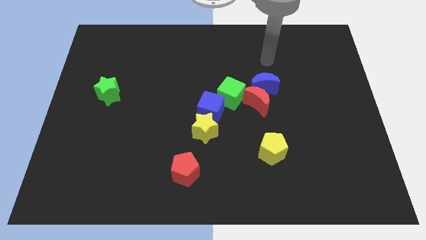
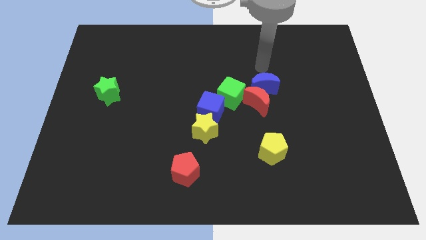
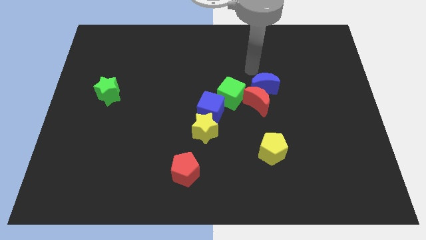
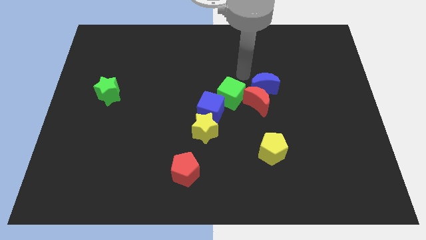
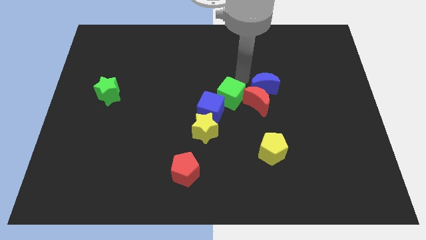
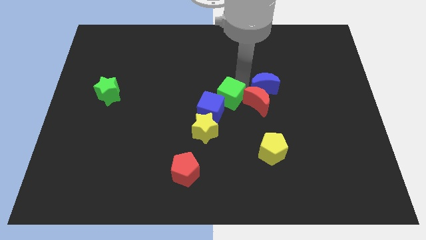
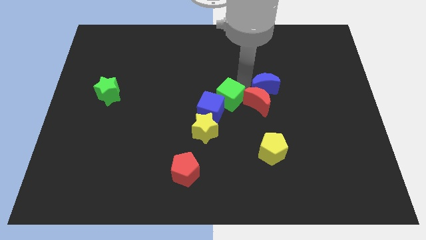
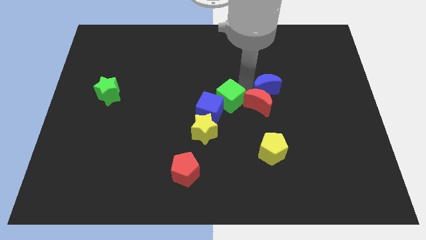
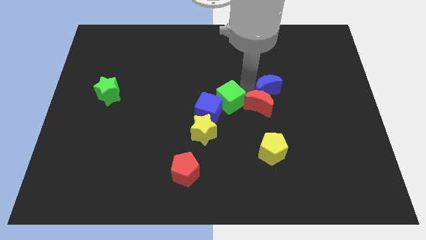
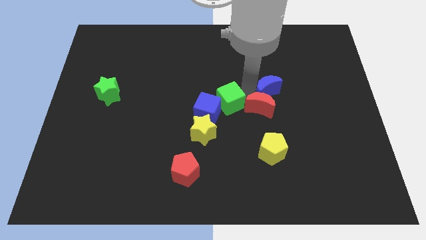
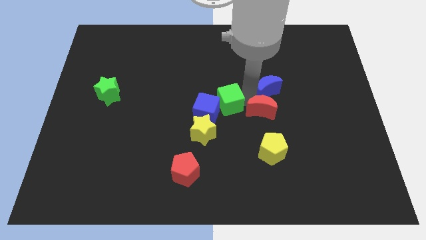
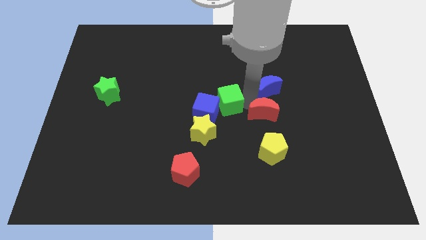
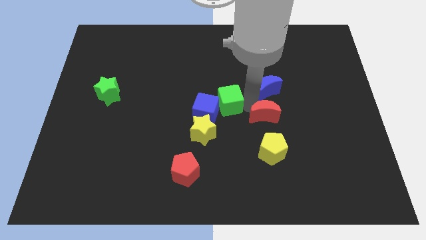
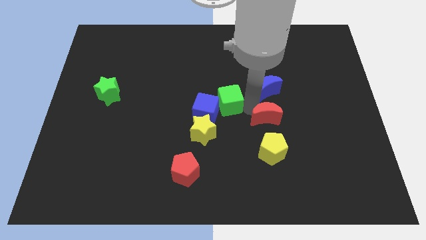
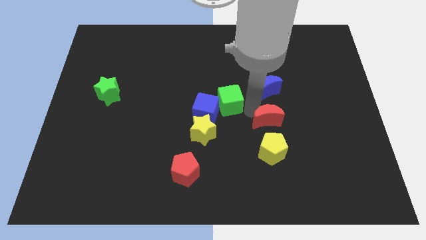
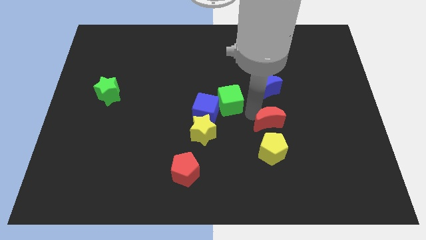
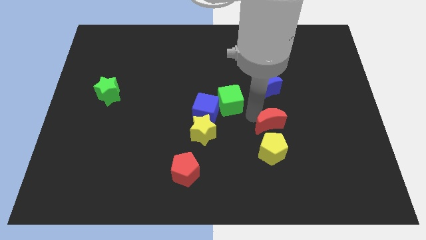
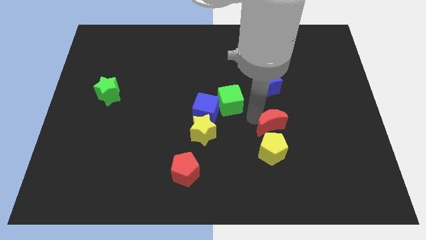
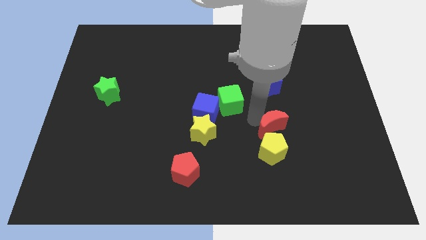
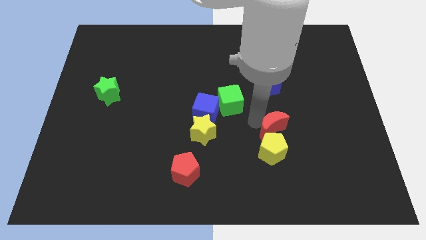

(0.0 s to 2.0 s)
separate the red moon from the blue moon and green cube

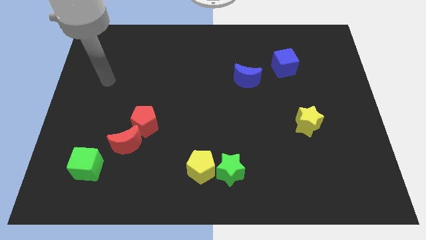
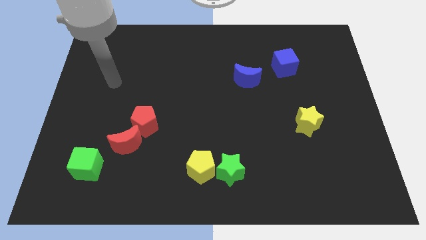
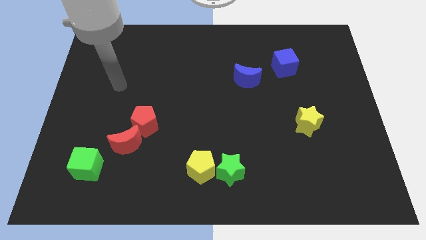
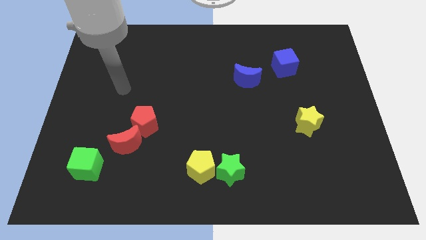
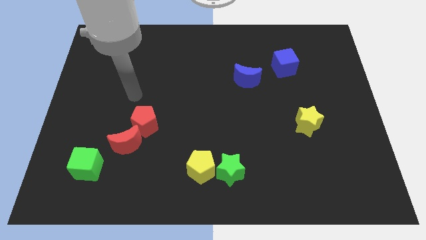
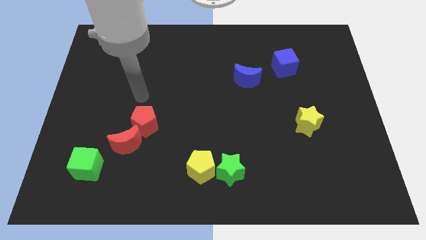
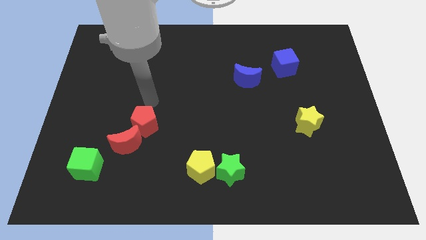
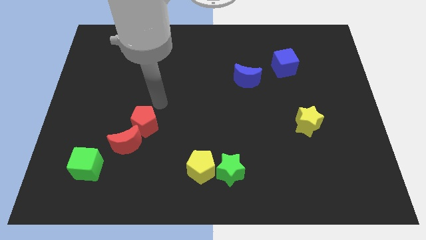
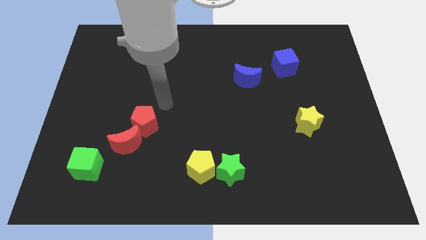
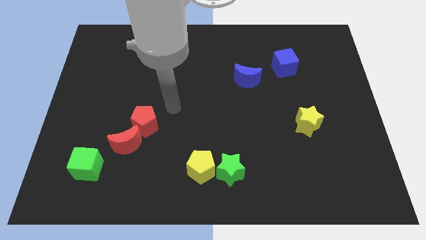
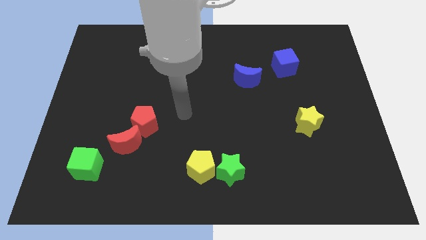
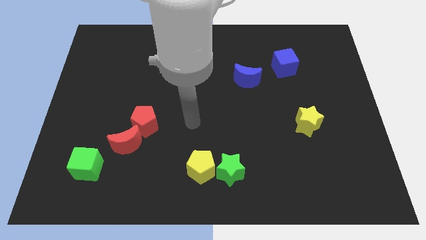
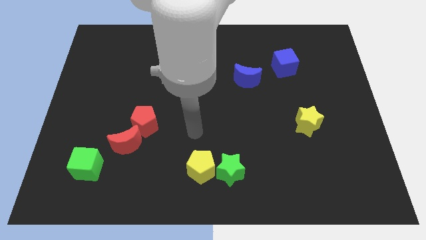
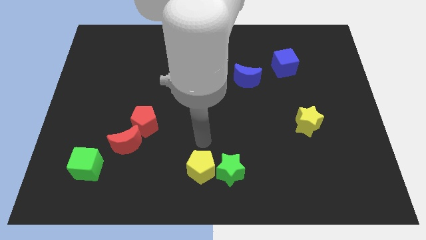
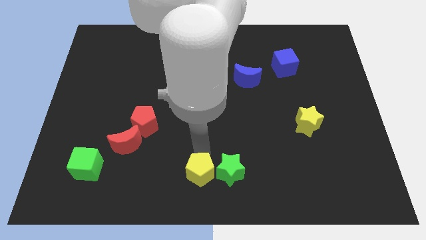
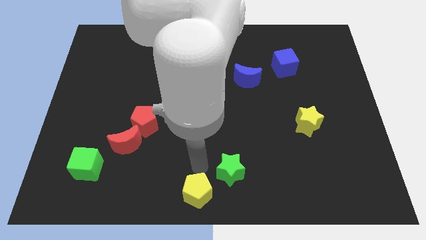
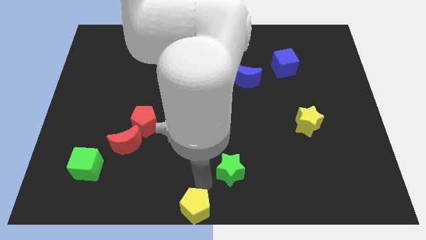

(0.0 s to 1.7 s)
separate the green star from the yellow pentagon

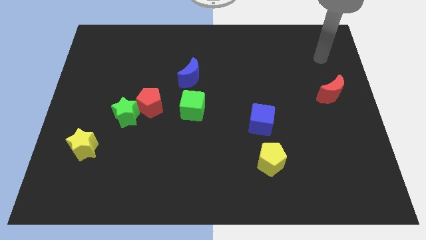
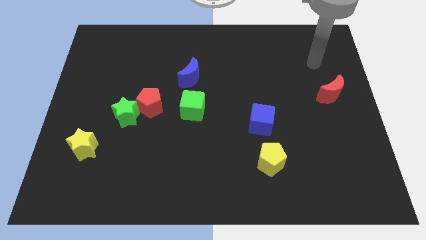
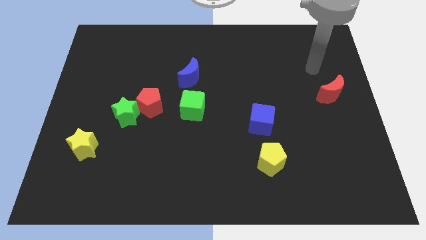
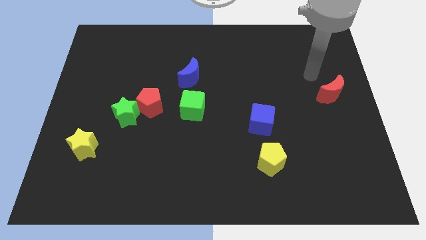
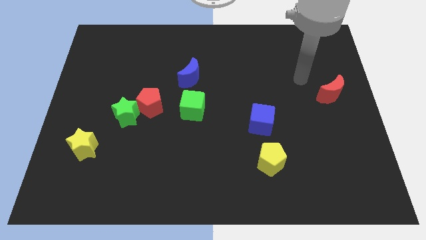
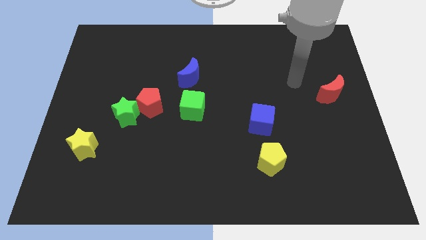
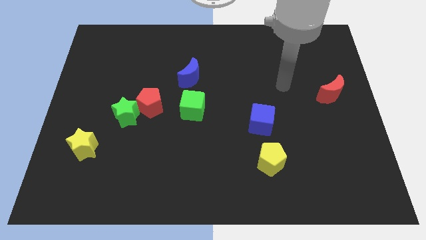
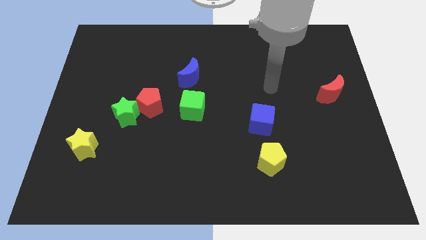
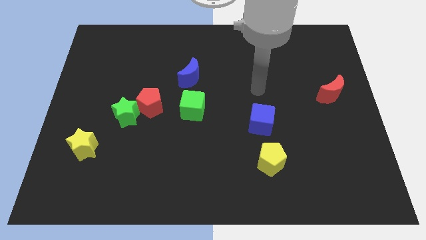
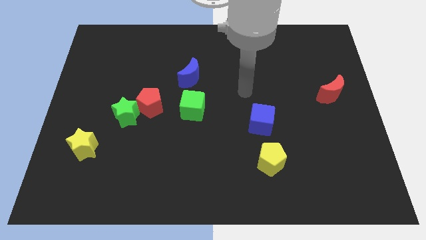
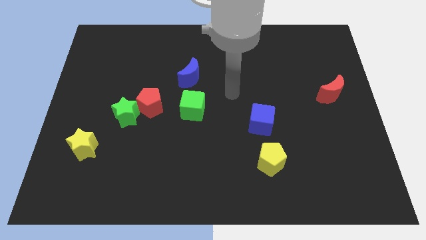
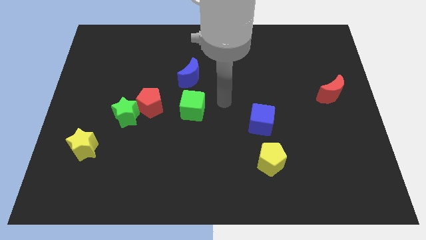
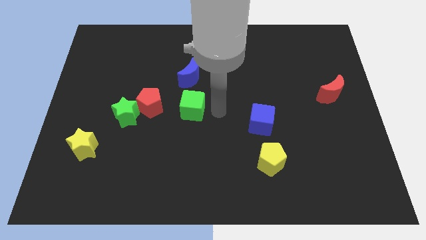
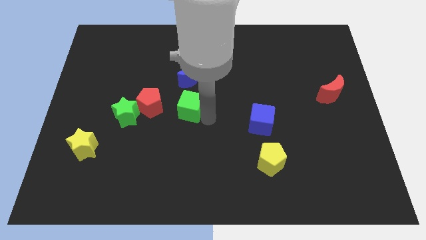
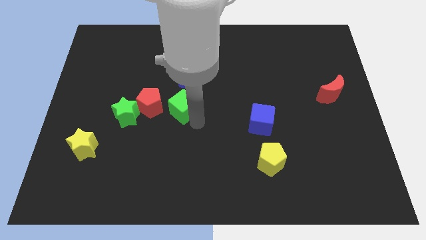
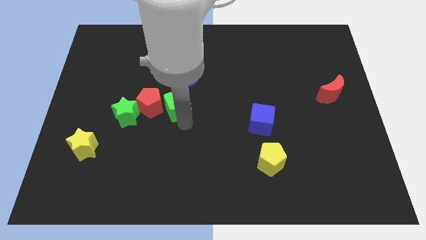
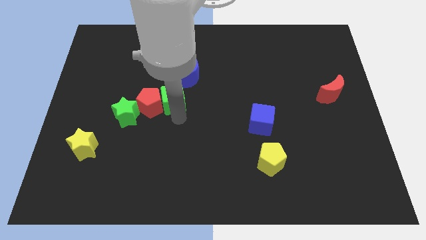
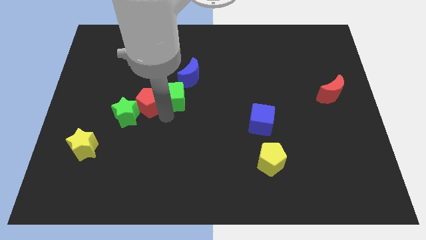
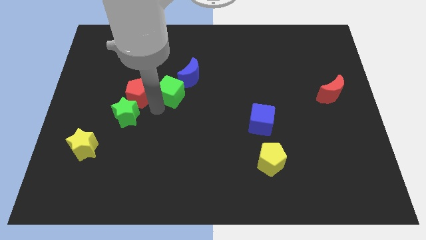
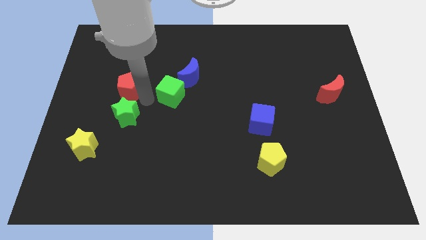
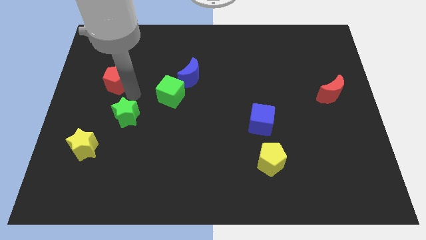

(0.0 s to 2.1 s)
separate the green star from the red pentagon

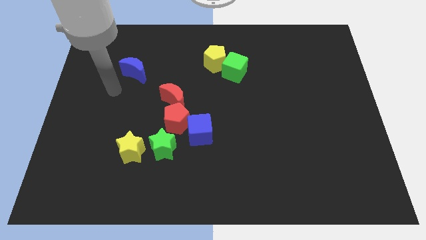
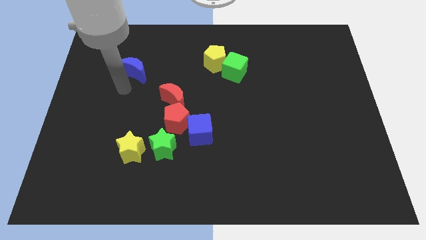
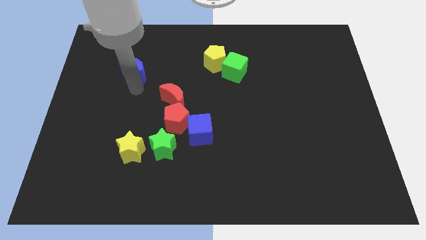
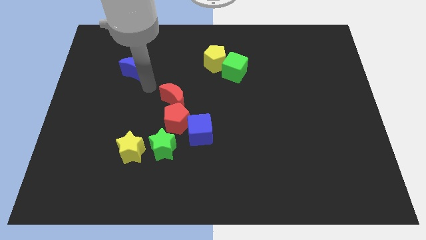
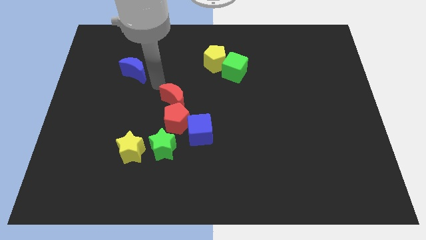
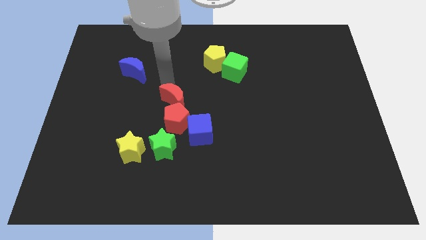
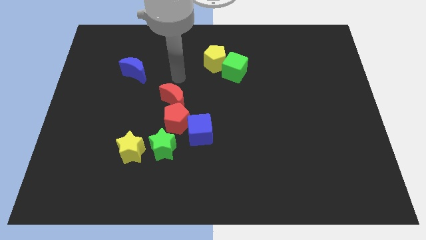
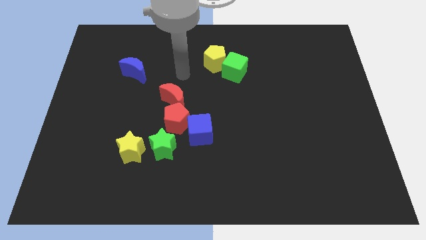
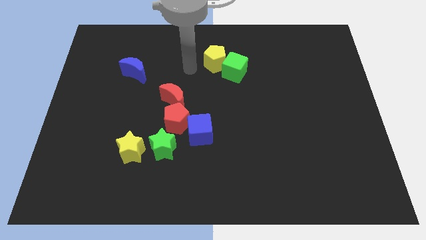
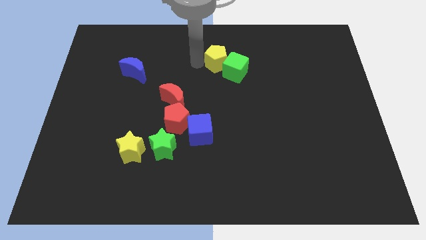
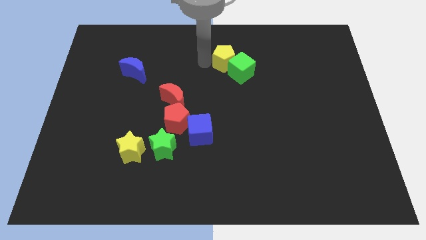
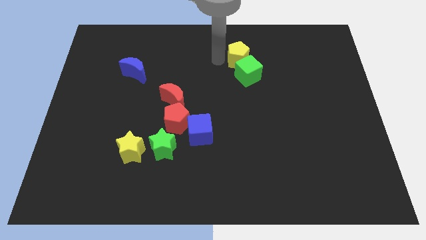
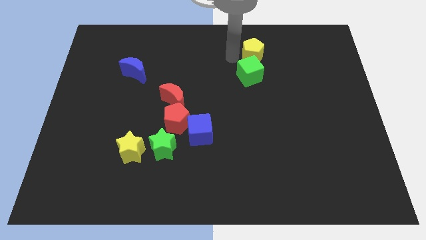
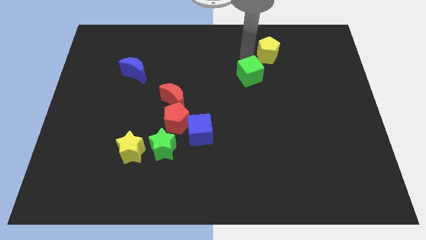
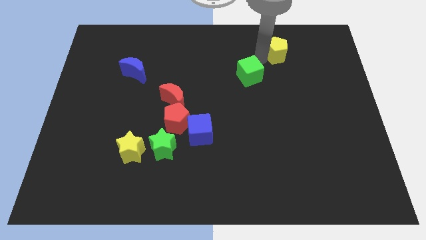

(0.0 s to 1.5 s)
separate the green cube from the yellow pentagon

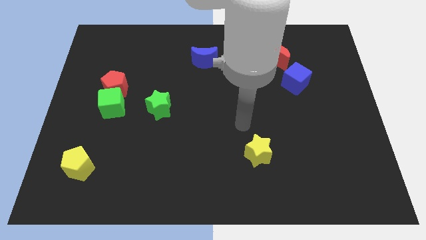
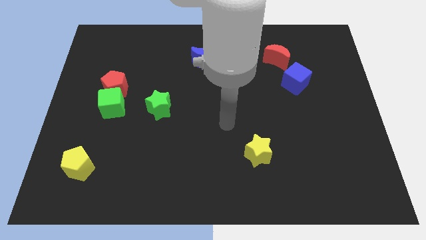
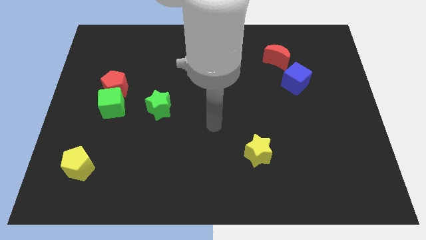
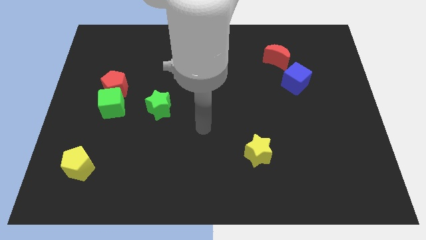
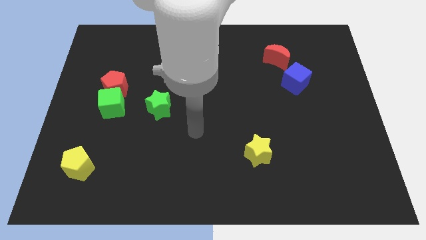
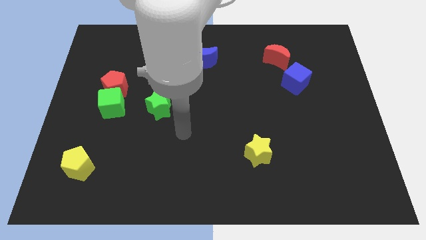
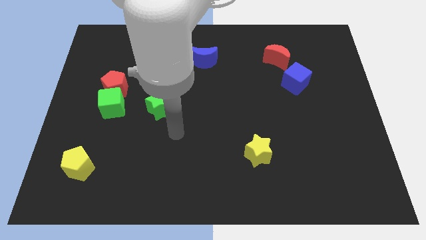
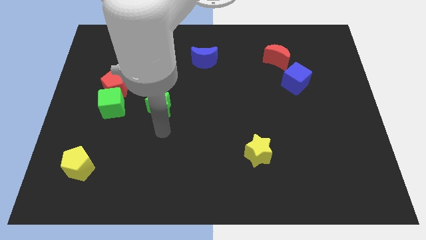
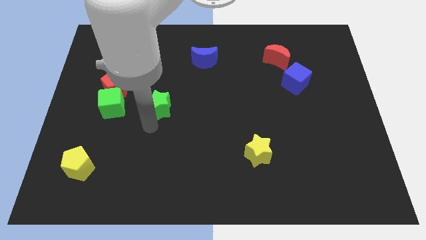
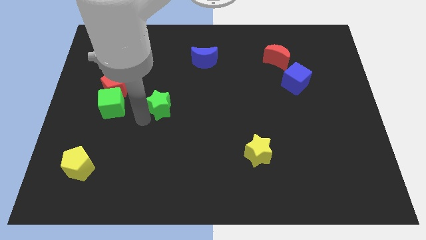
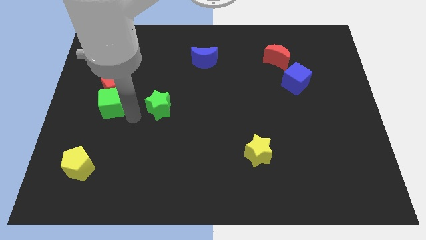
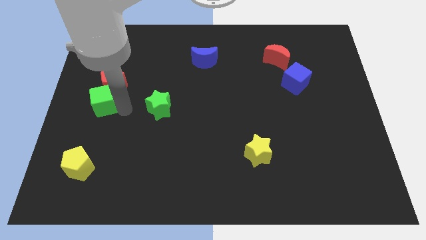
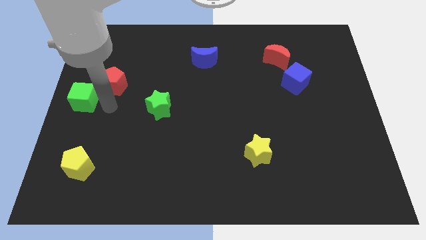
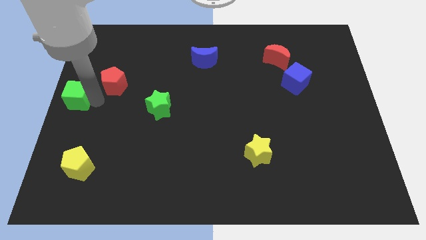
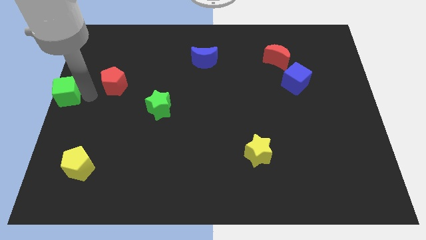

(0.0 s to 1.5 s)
move the red pentagon away from the green cube

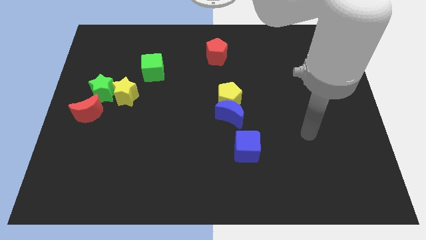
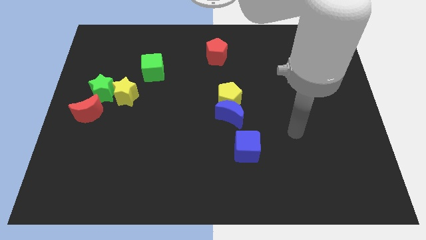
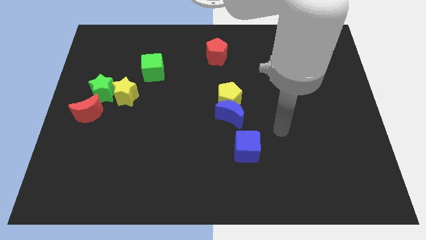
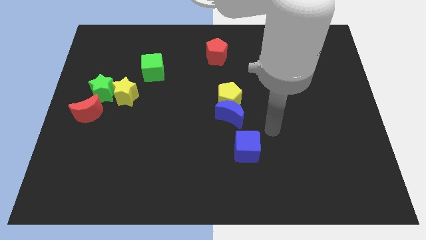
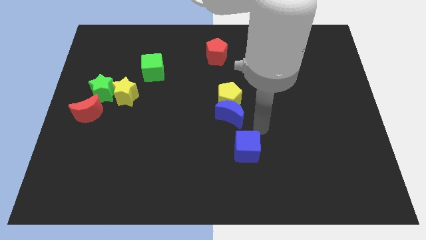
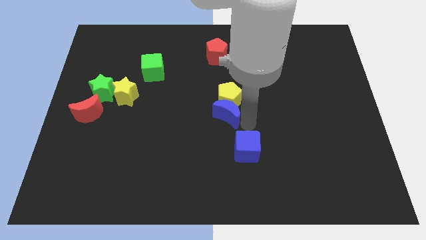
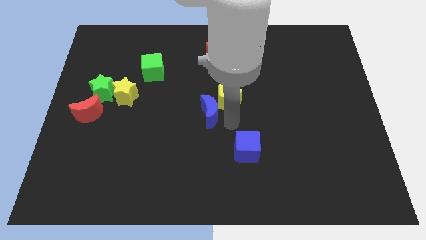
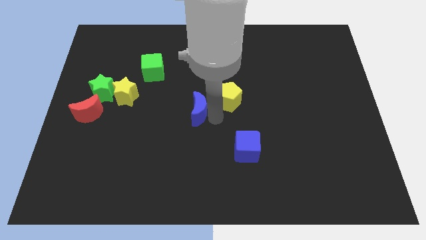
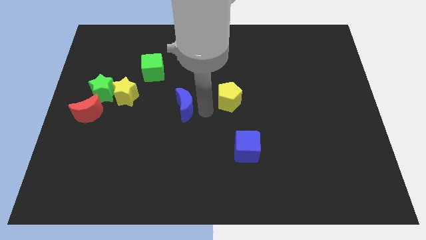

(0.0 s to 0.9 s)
pull the yellow pentagon apart from the blue moon
